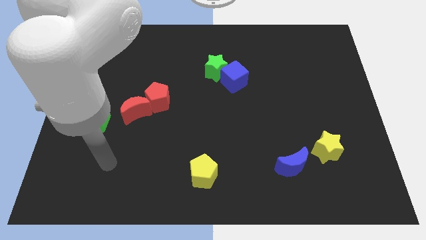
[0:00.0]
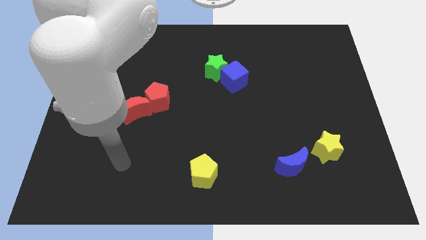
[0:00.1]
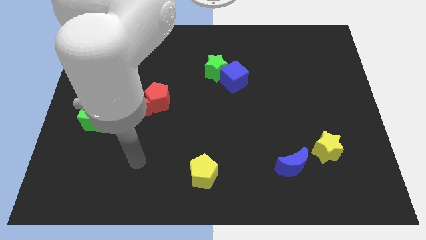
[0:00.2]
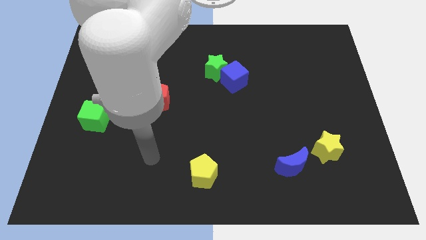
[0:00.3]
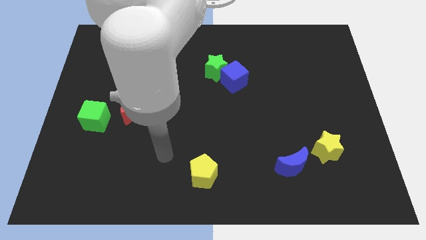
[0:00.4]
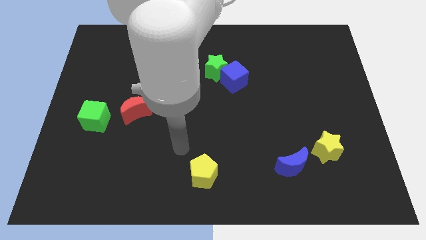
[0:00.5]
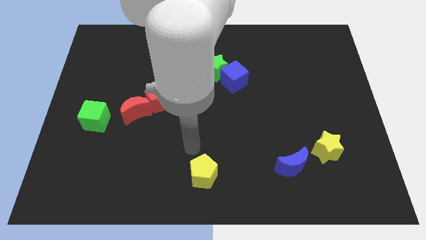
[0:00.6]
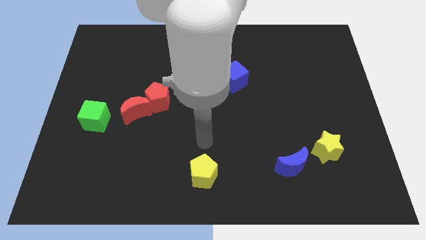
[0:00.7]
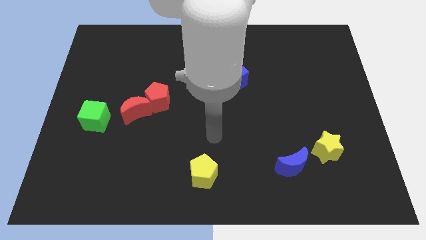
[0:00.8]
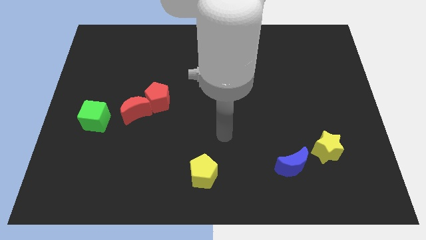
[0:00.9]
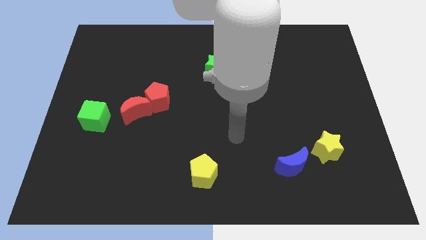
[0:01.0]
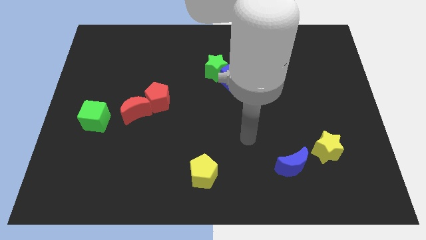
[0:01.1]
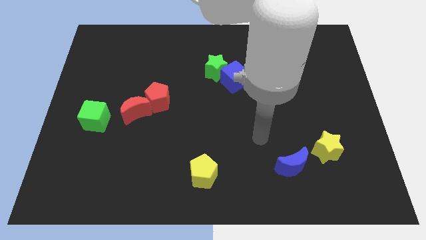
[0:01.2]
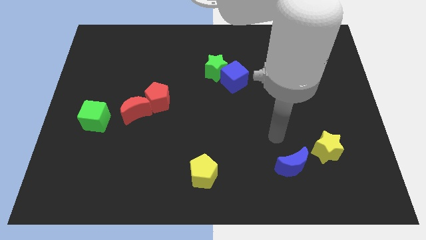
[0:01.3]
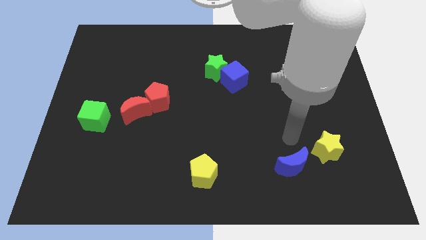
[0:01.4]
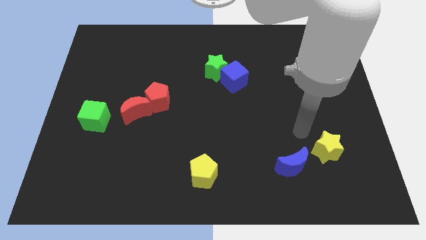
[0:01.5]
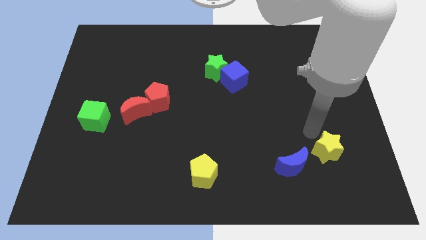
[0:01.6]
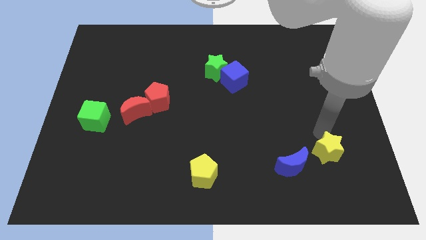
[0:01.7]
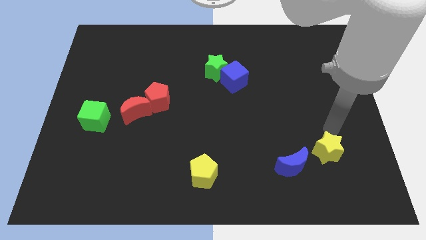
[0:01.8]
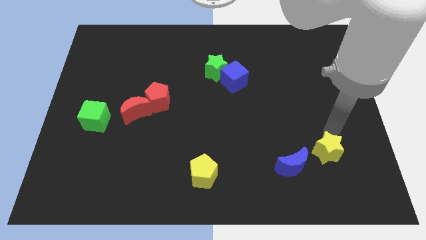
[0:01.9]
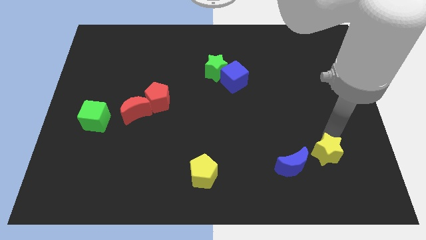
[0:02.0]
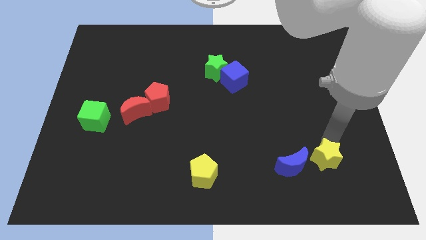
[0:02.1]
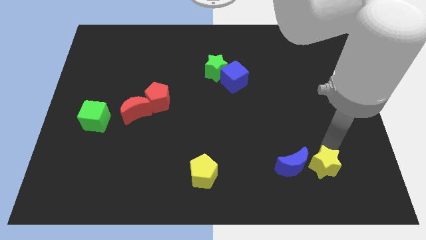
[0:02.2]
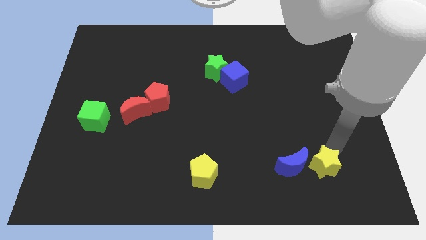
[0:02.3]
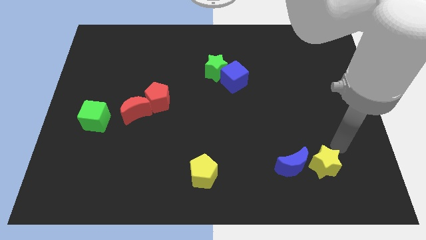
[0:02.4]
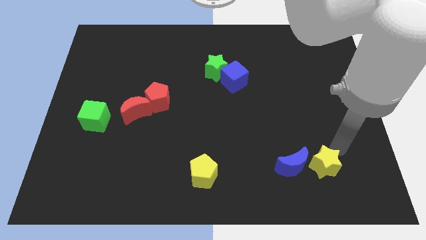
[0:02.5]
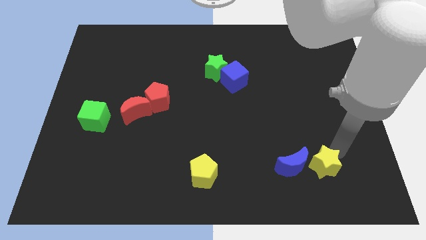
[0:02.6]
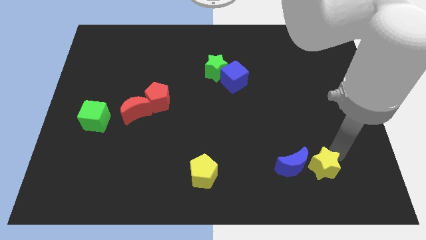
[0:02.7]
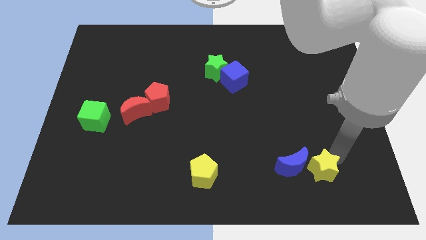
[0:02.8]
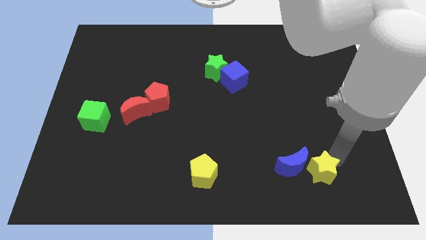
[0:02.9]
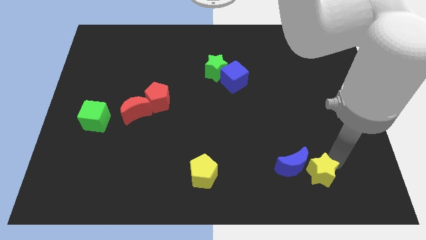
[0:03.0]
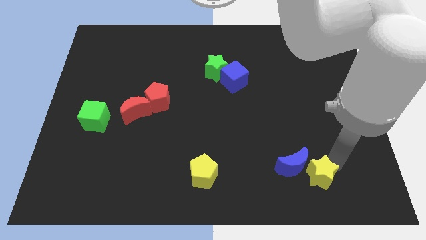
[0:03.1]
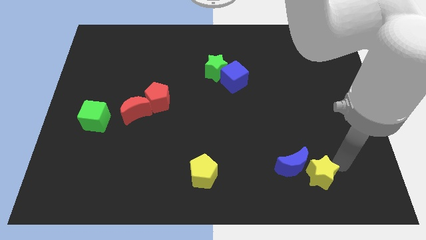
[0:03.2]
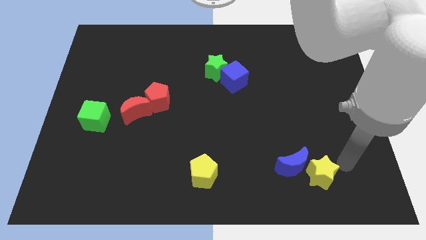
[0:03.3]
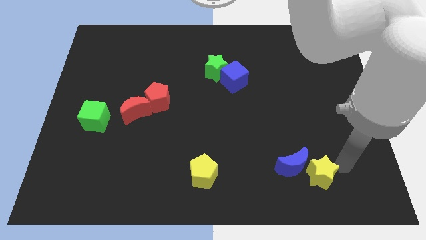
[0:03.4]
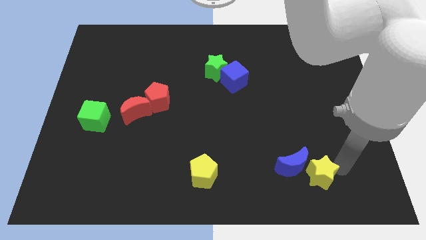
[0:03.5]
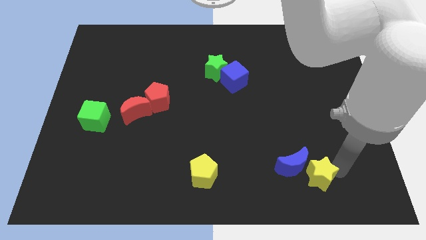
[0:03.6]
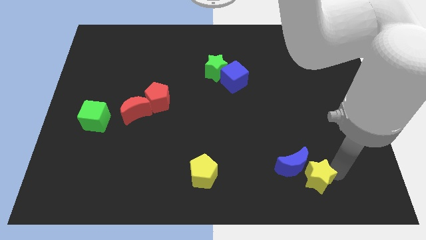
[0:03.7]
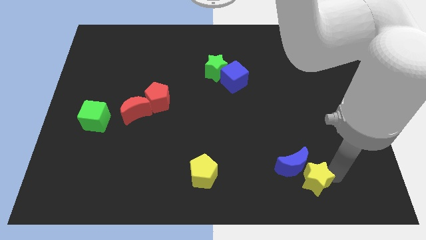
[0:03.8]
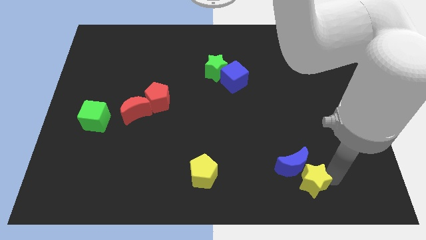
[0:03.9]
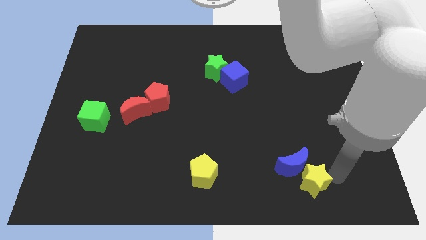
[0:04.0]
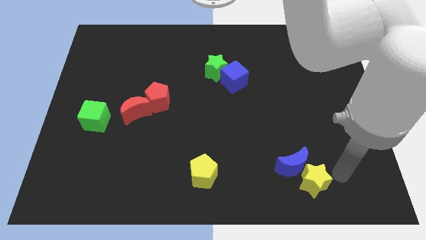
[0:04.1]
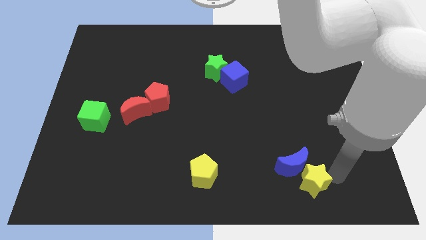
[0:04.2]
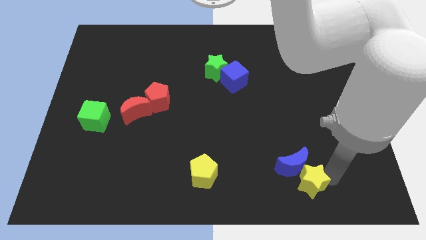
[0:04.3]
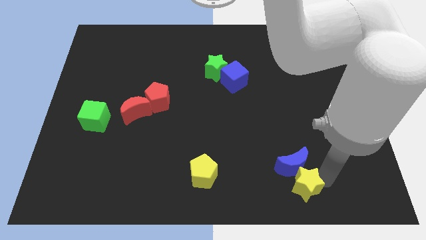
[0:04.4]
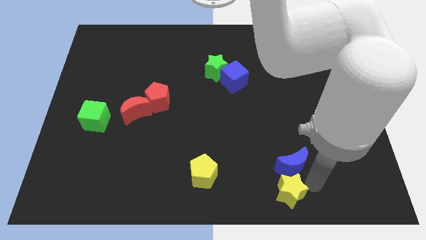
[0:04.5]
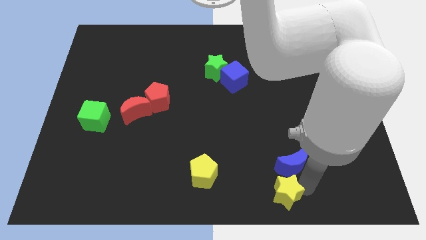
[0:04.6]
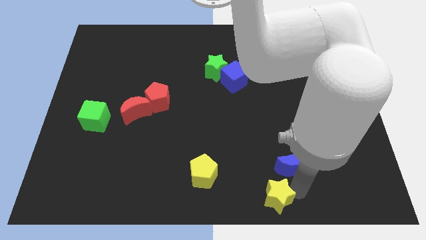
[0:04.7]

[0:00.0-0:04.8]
put the yellow star to the bottom

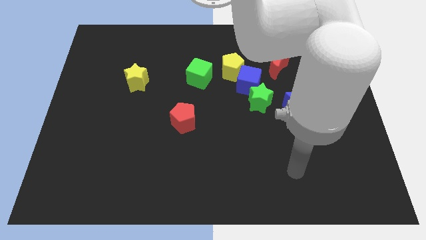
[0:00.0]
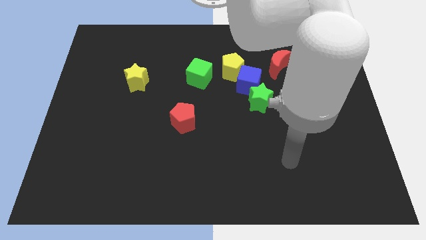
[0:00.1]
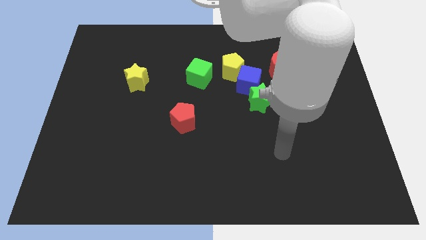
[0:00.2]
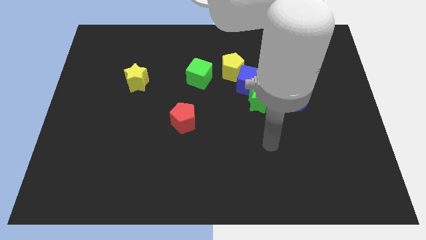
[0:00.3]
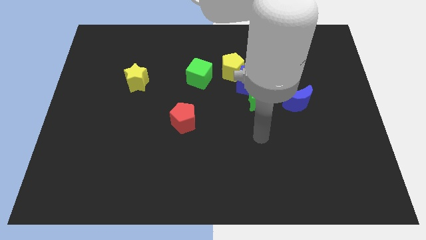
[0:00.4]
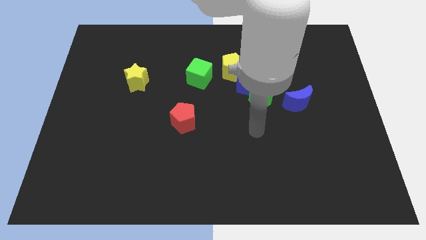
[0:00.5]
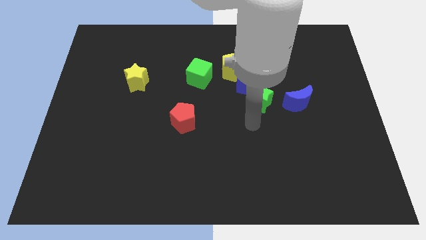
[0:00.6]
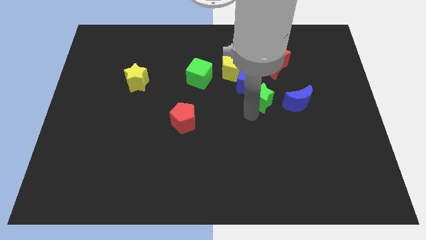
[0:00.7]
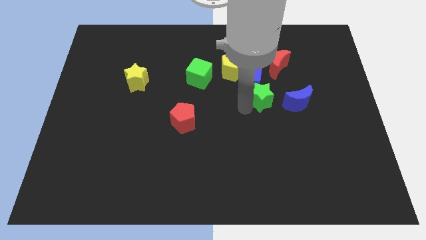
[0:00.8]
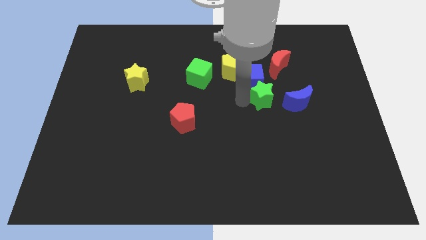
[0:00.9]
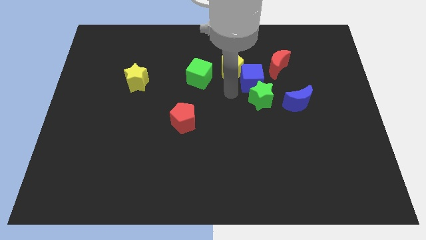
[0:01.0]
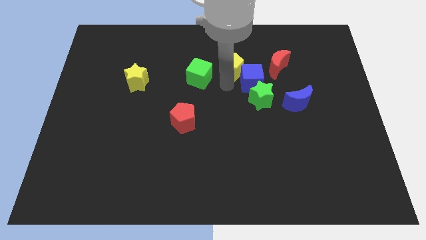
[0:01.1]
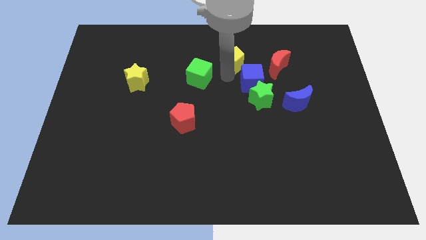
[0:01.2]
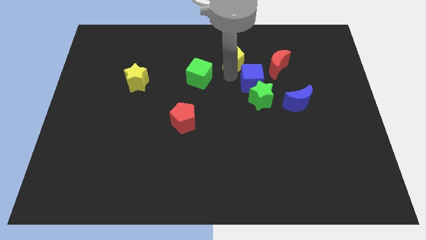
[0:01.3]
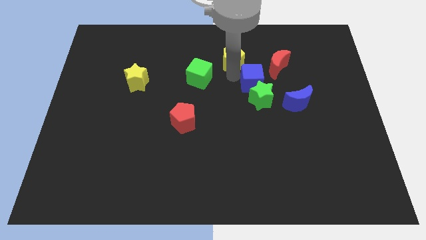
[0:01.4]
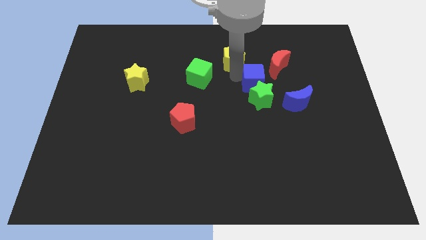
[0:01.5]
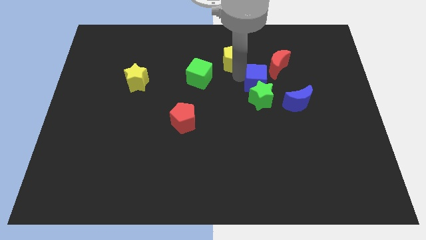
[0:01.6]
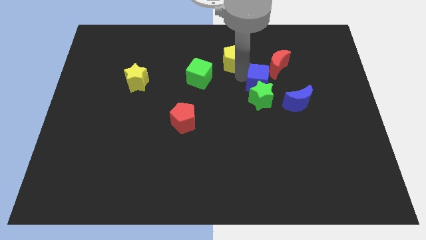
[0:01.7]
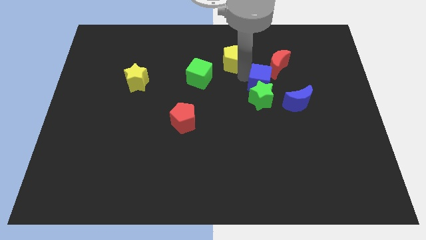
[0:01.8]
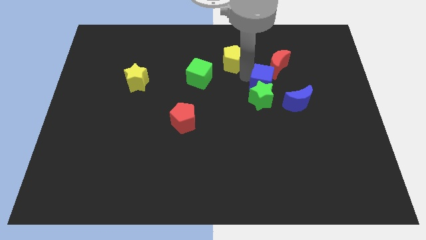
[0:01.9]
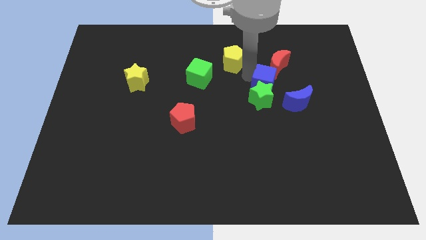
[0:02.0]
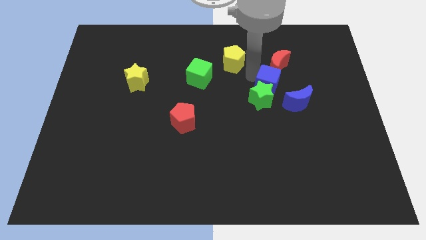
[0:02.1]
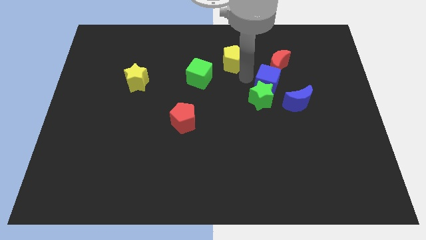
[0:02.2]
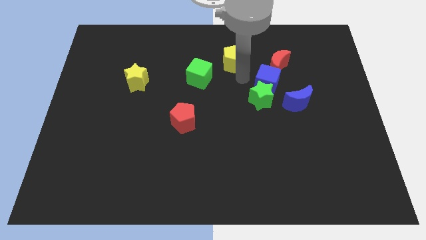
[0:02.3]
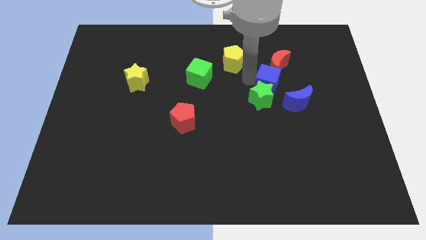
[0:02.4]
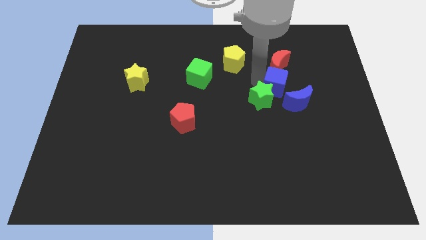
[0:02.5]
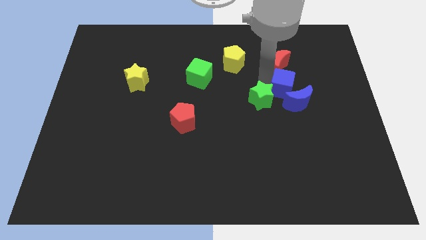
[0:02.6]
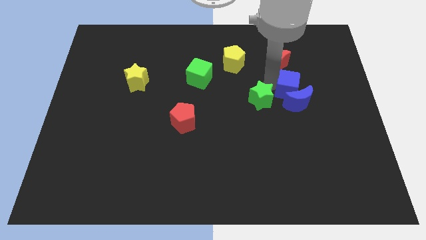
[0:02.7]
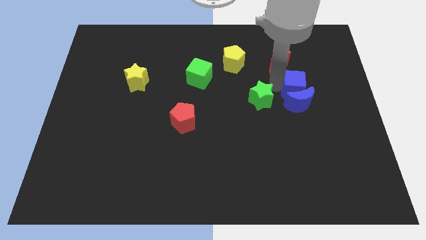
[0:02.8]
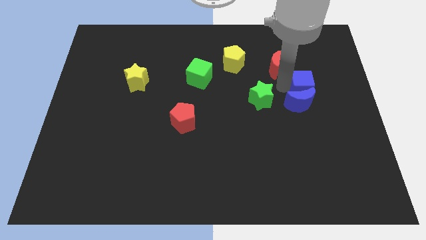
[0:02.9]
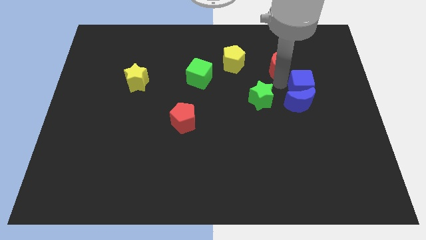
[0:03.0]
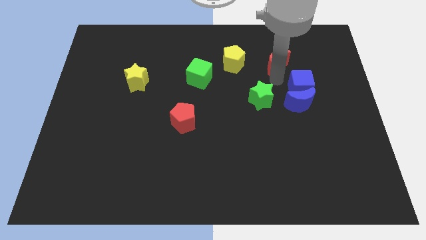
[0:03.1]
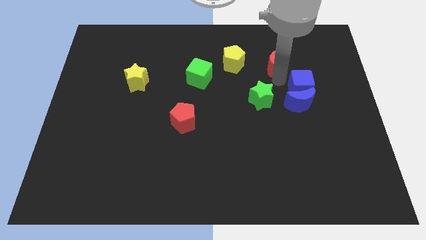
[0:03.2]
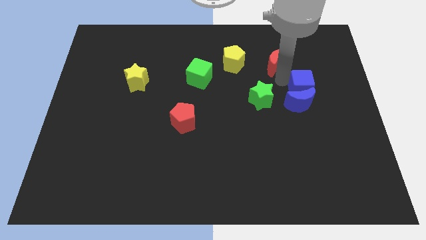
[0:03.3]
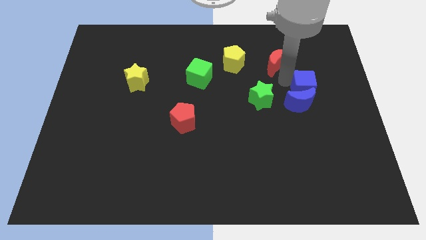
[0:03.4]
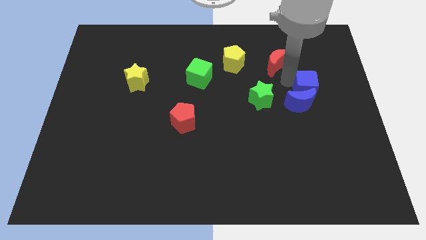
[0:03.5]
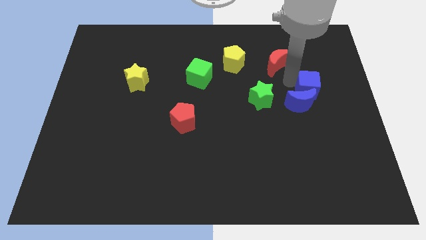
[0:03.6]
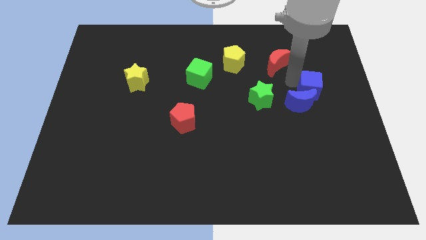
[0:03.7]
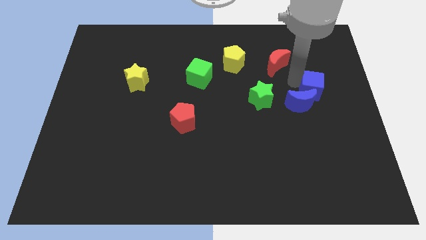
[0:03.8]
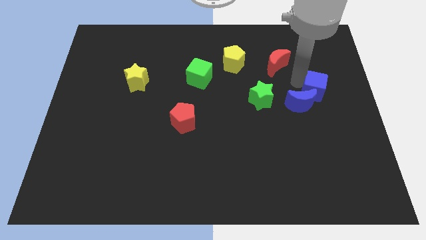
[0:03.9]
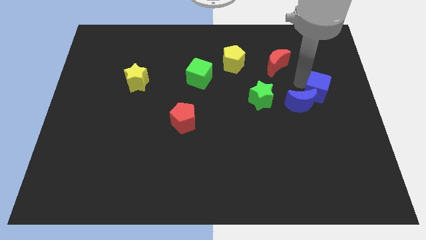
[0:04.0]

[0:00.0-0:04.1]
slide the blue cube to the right side
